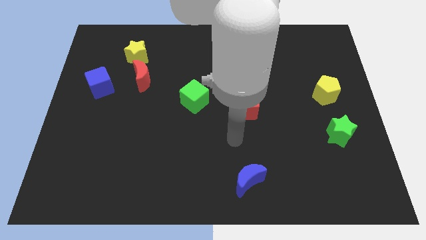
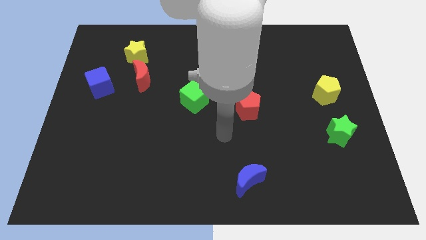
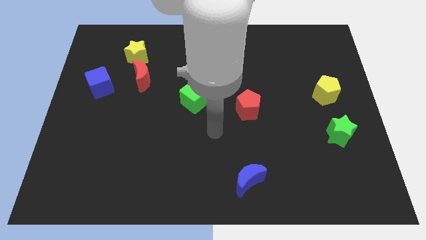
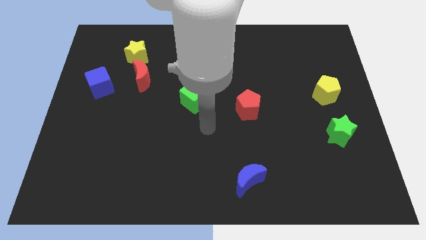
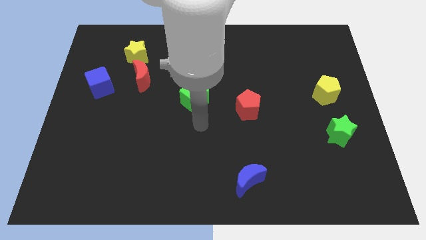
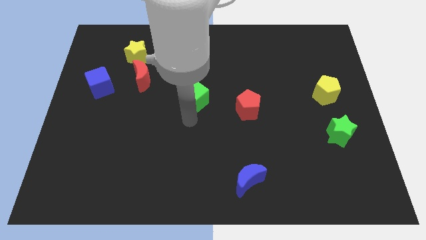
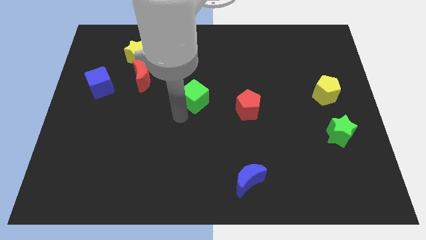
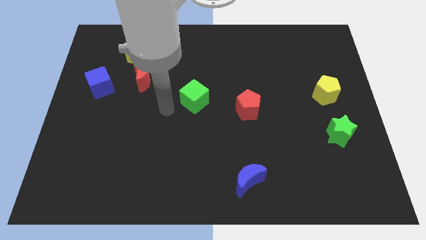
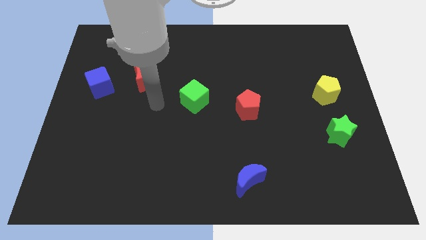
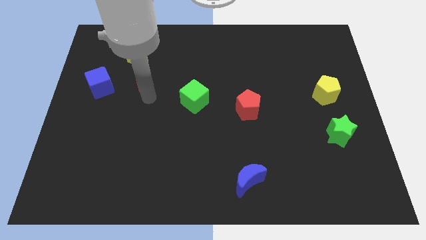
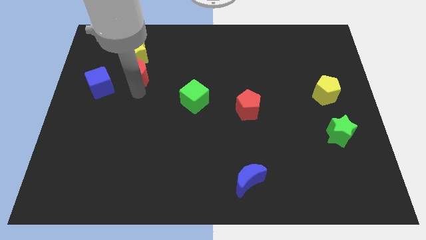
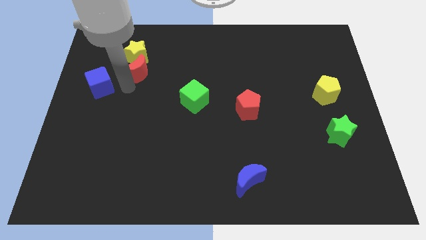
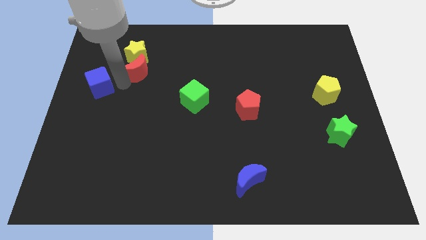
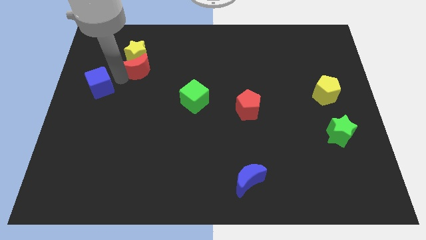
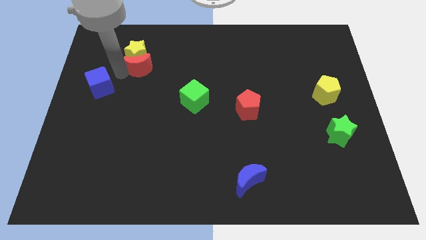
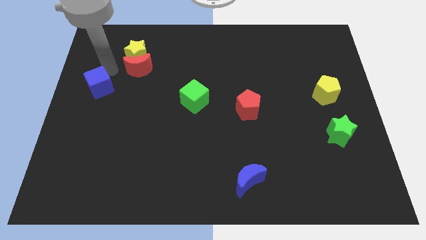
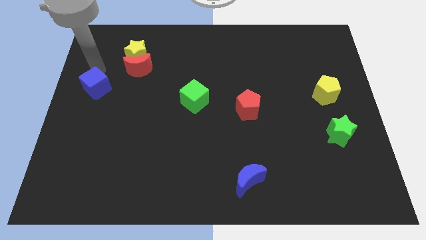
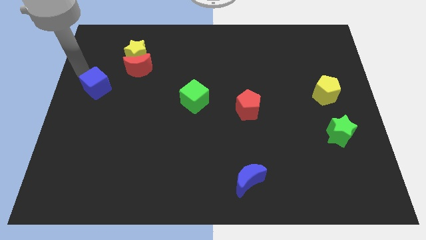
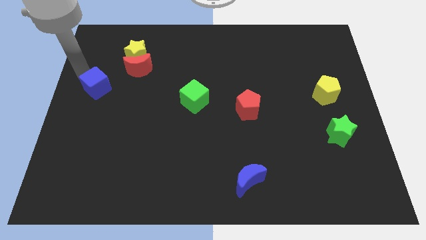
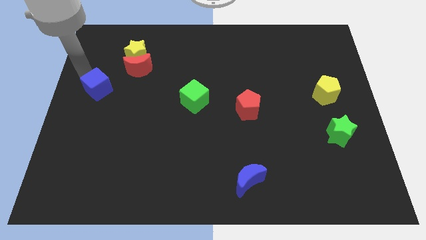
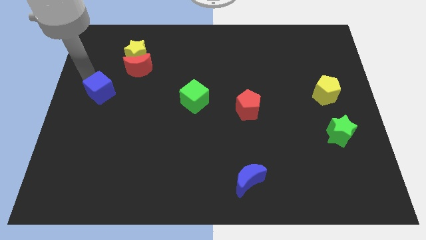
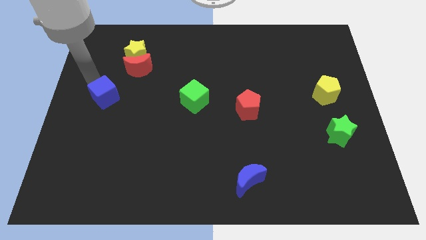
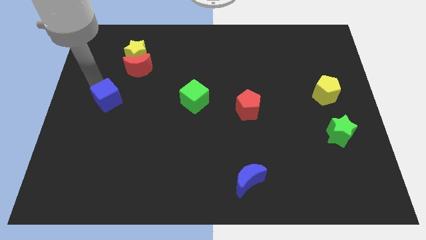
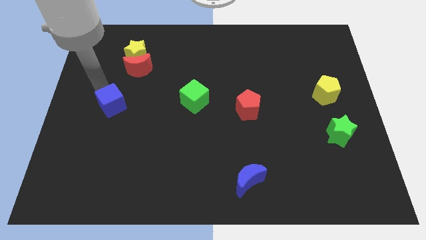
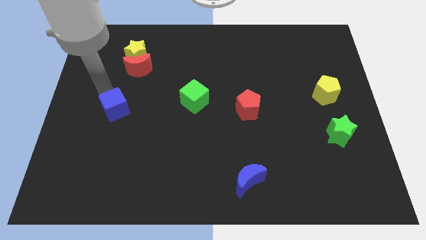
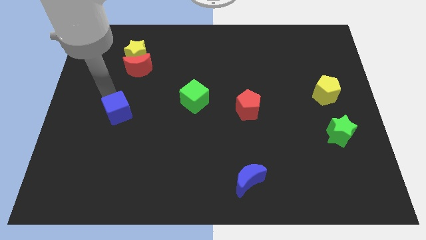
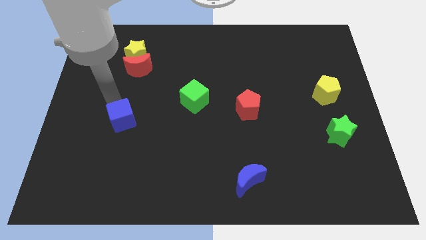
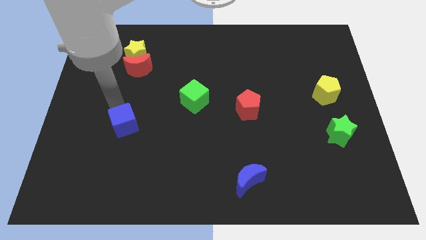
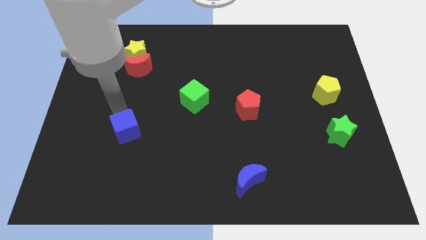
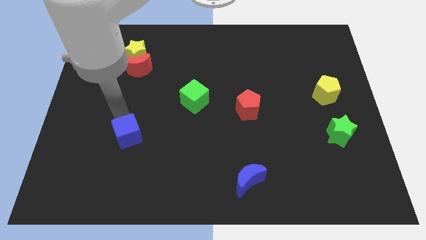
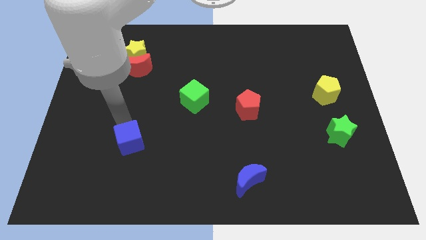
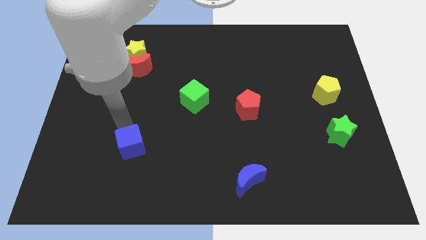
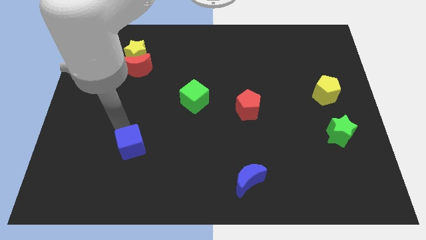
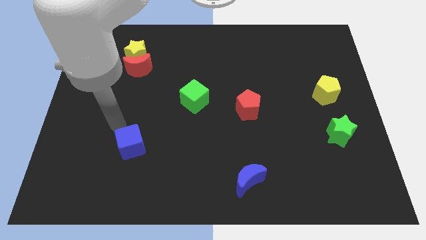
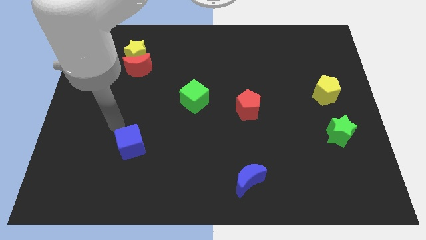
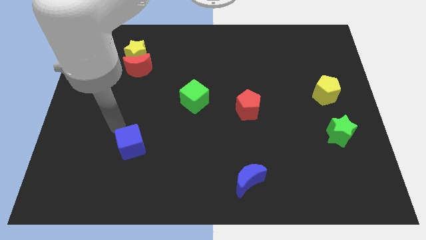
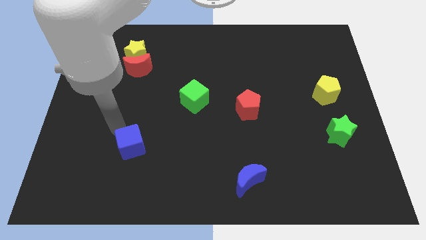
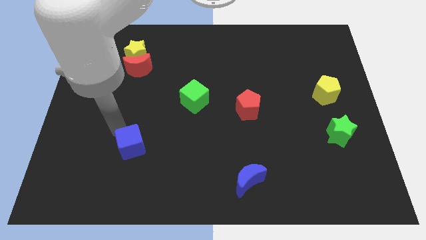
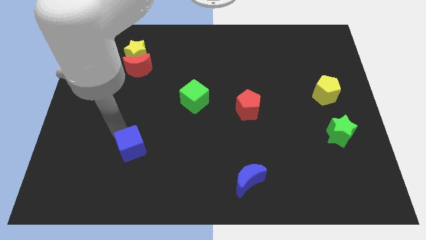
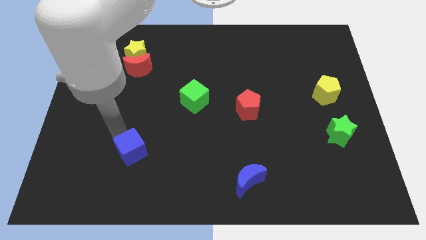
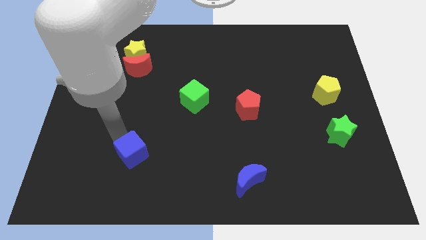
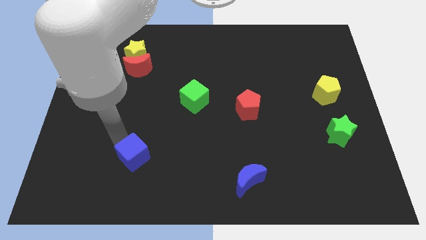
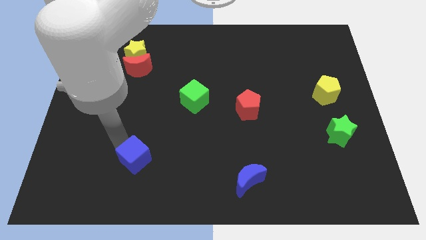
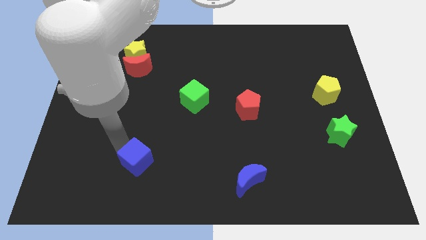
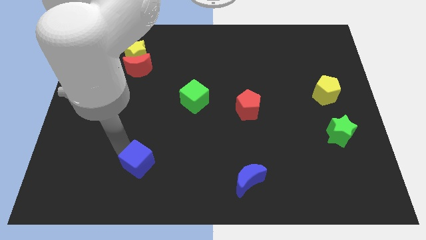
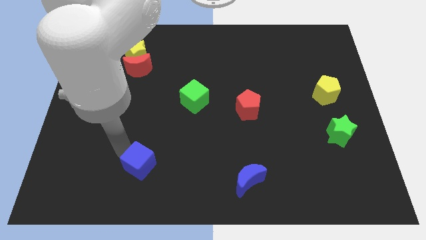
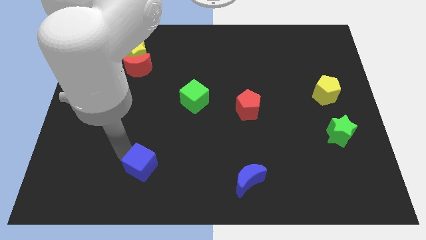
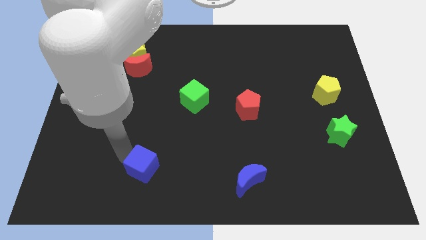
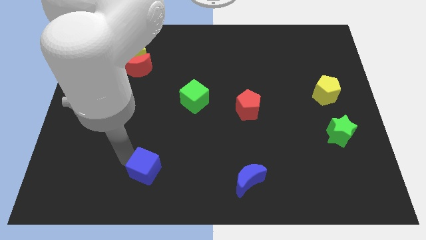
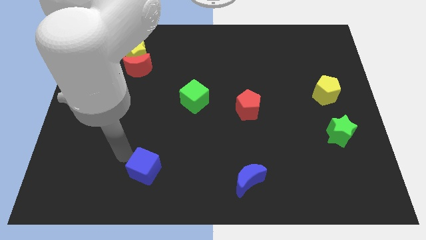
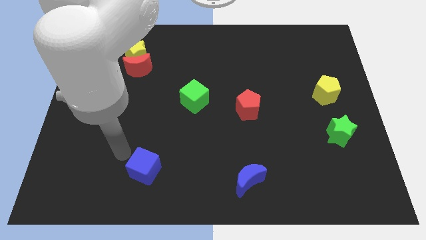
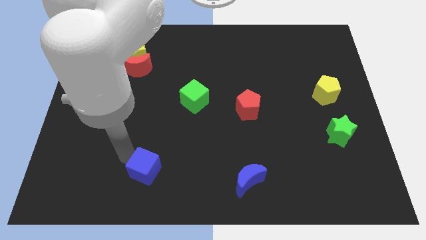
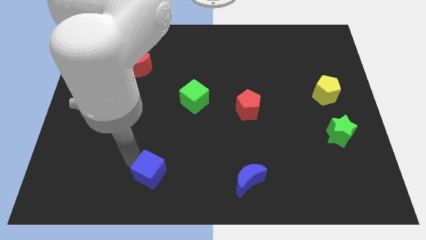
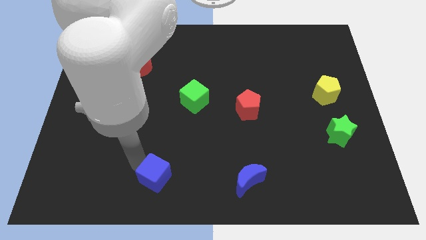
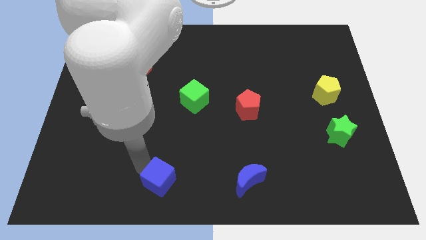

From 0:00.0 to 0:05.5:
move the blue cube to the bottom
